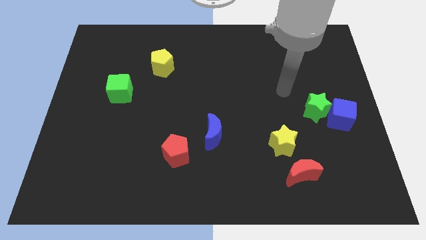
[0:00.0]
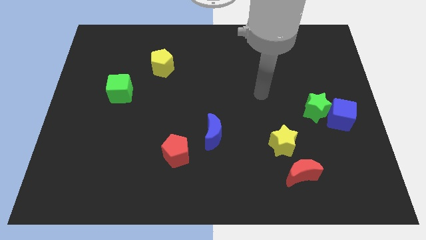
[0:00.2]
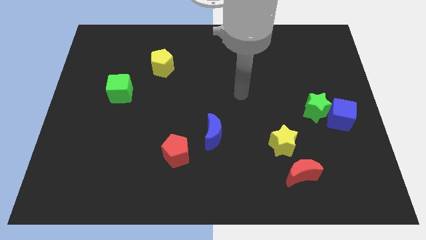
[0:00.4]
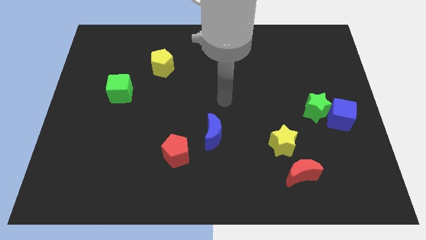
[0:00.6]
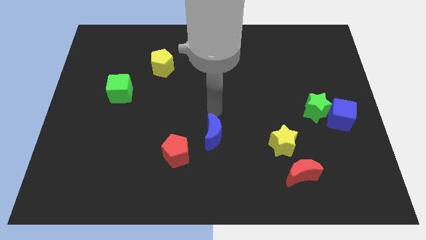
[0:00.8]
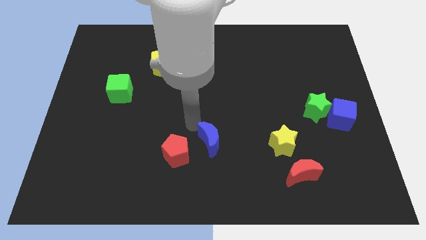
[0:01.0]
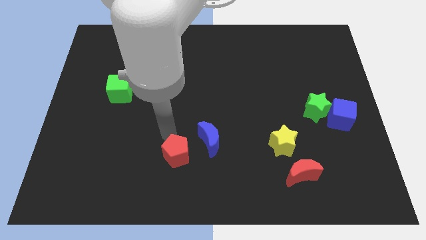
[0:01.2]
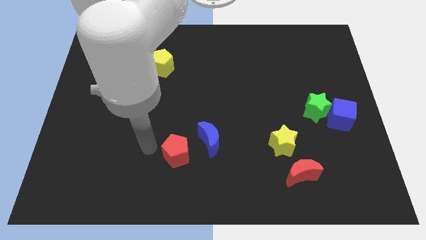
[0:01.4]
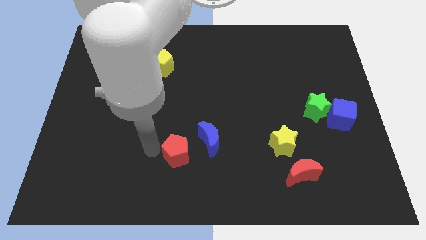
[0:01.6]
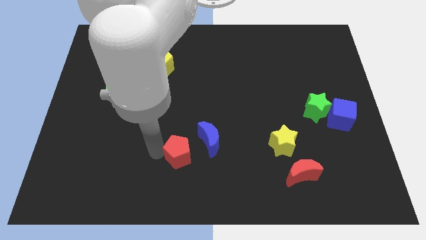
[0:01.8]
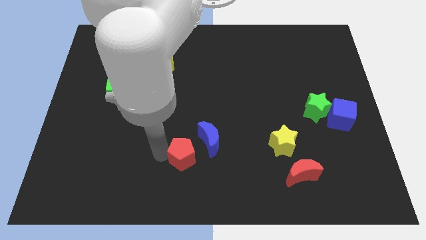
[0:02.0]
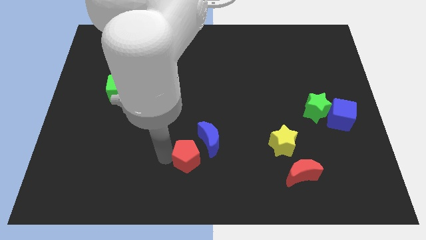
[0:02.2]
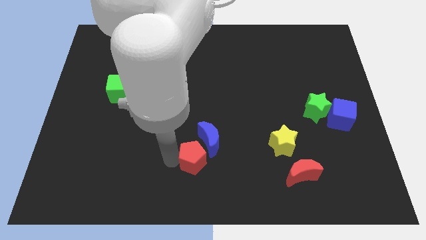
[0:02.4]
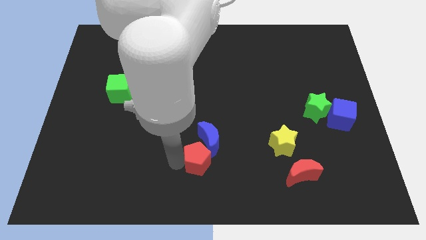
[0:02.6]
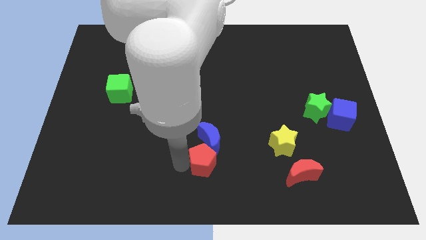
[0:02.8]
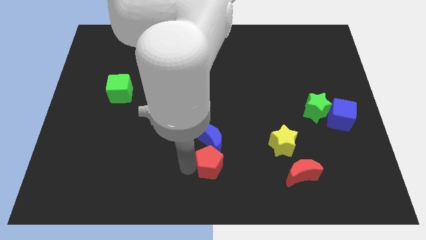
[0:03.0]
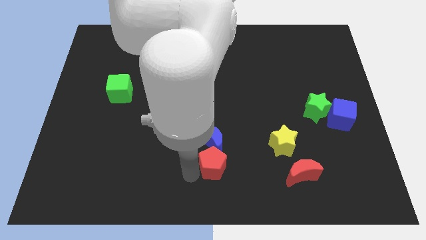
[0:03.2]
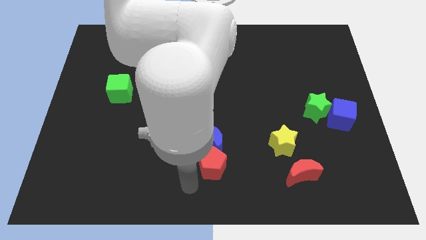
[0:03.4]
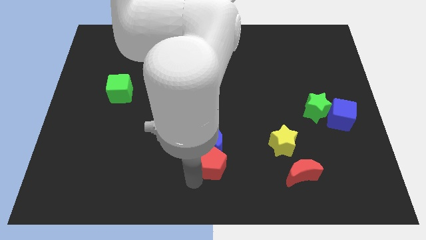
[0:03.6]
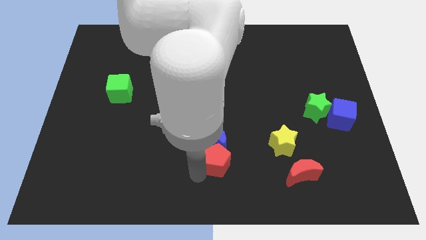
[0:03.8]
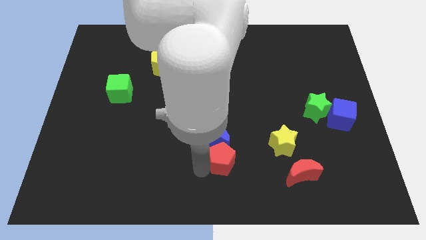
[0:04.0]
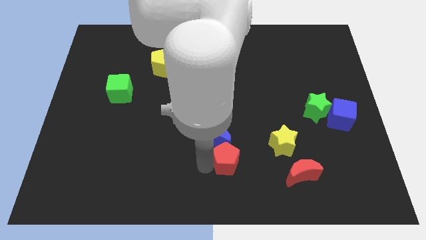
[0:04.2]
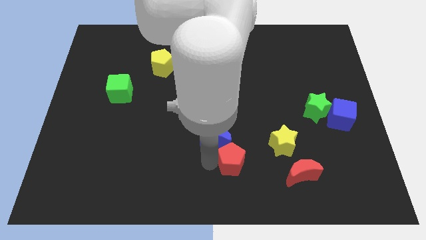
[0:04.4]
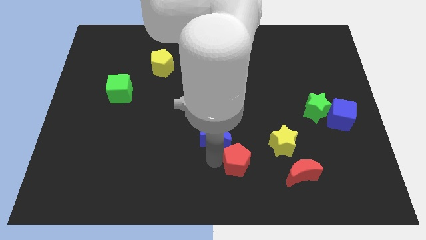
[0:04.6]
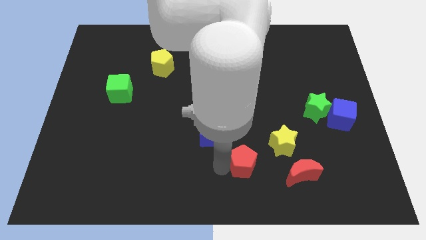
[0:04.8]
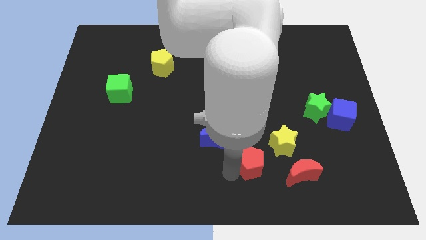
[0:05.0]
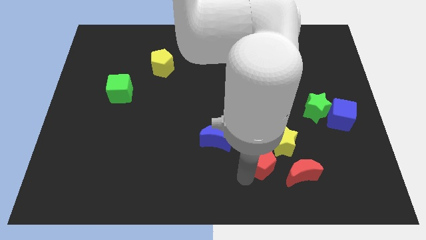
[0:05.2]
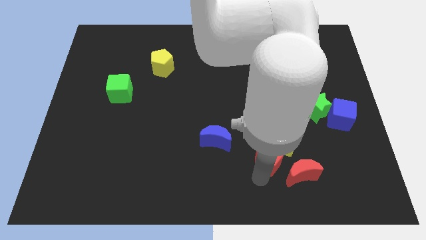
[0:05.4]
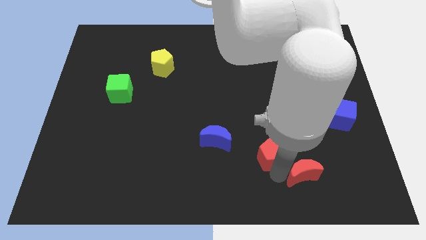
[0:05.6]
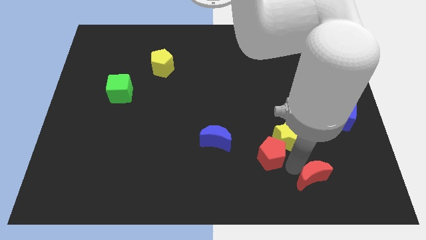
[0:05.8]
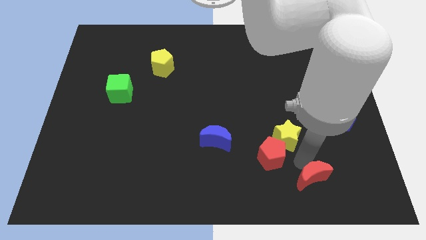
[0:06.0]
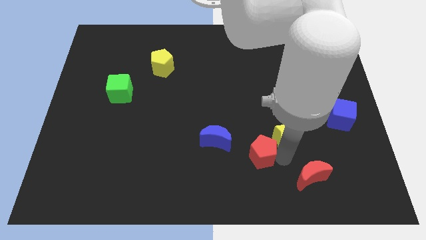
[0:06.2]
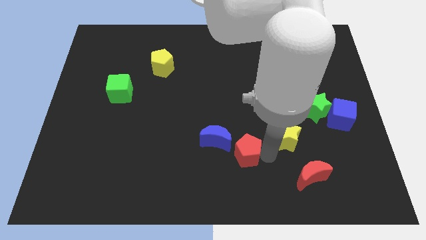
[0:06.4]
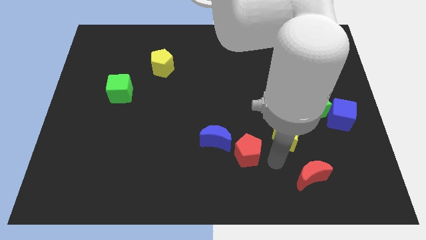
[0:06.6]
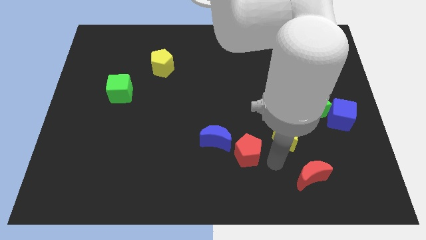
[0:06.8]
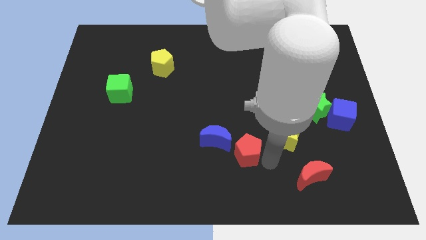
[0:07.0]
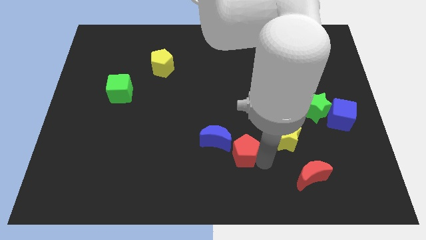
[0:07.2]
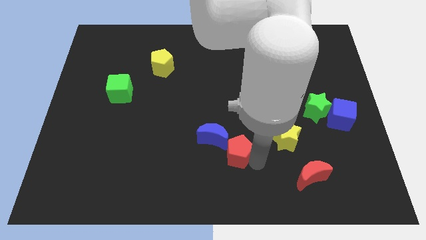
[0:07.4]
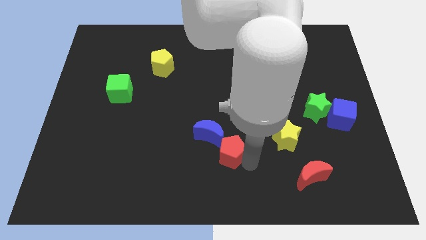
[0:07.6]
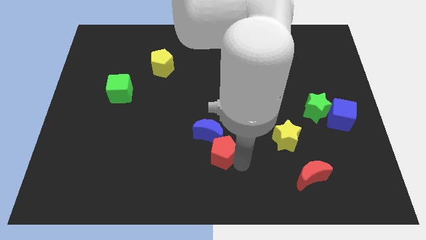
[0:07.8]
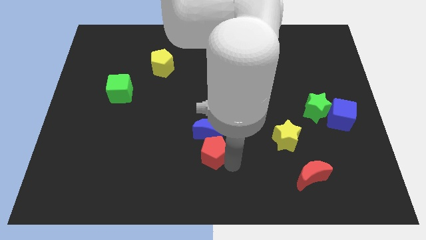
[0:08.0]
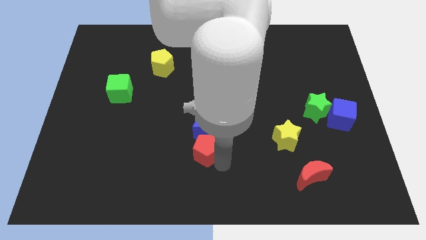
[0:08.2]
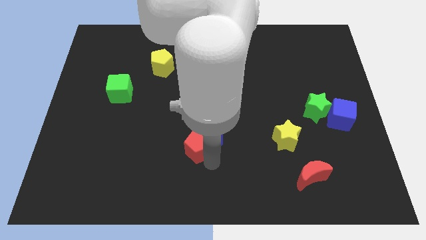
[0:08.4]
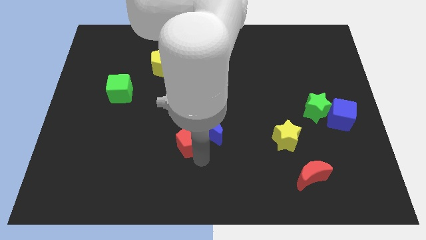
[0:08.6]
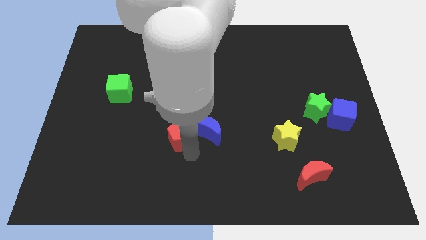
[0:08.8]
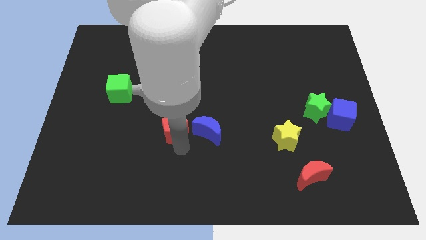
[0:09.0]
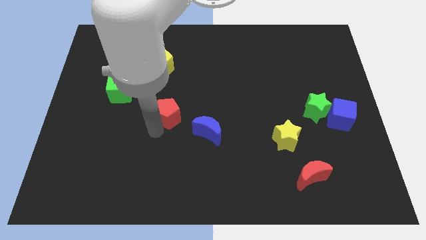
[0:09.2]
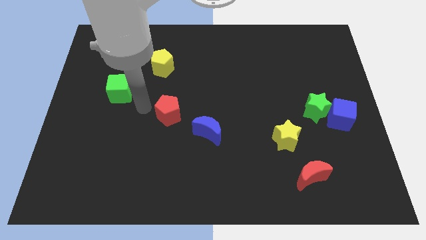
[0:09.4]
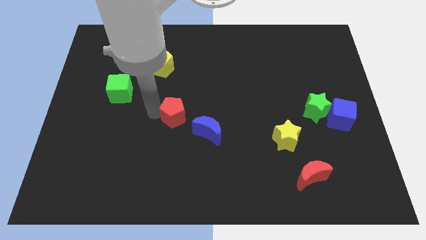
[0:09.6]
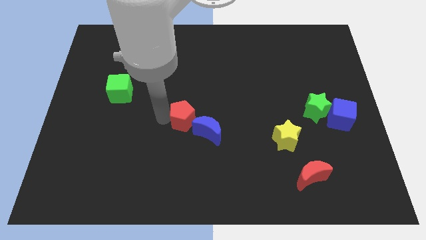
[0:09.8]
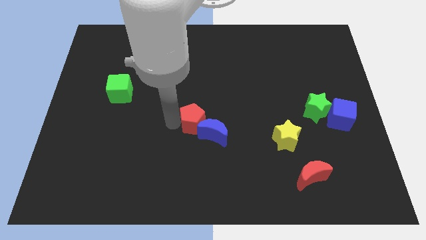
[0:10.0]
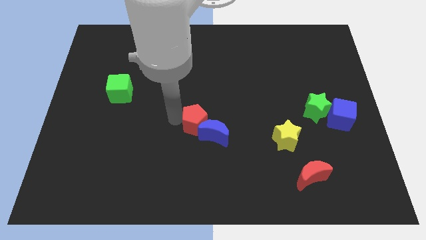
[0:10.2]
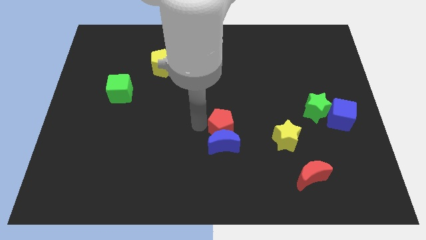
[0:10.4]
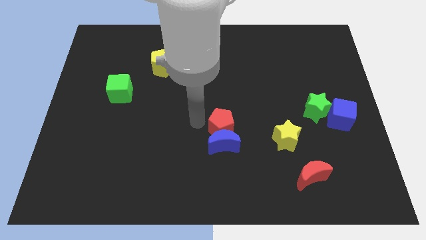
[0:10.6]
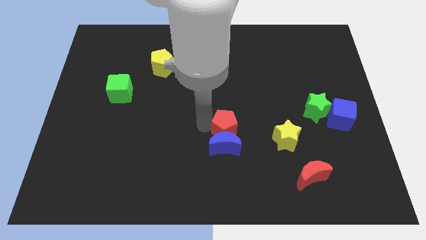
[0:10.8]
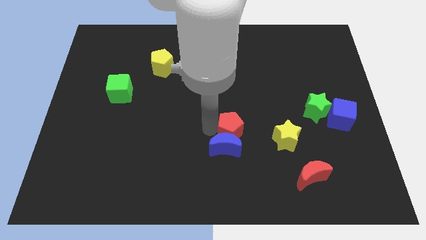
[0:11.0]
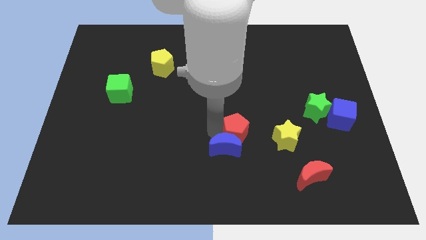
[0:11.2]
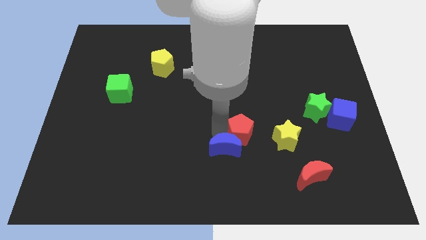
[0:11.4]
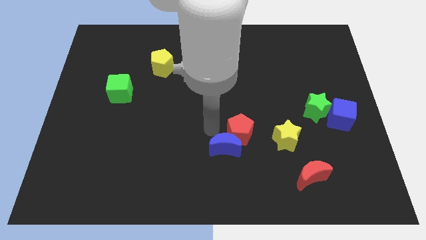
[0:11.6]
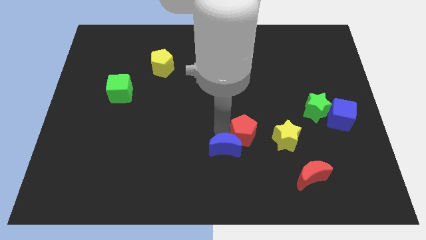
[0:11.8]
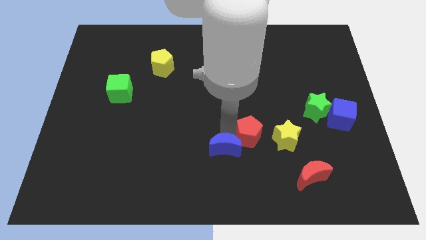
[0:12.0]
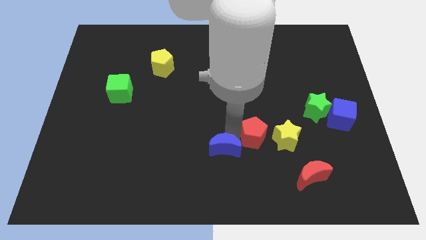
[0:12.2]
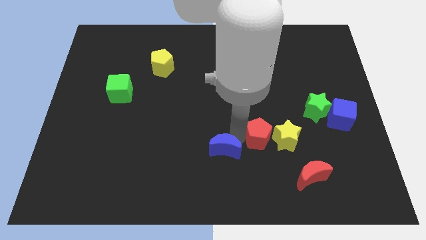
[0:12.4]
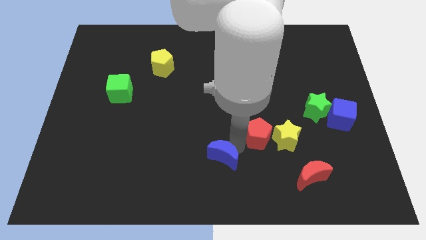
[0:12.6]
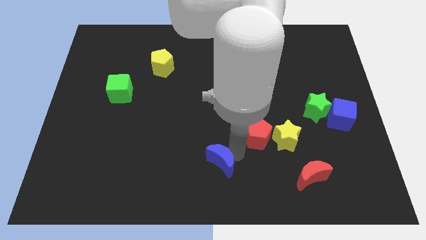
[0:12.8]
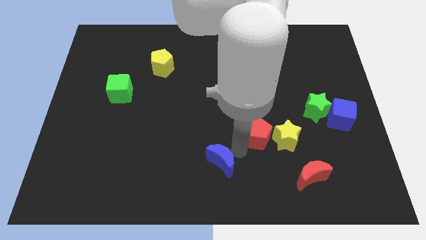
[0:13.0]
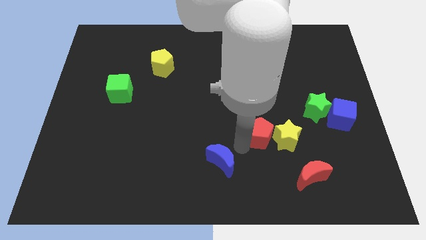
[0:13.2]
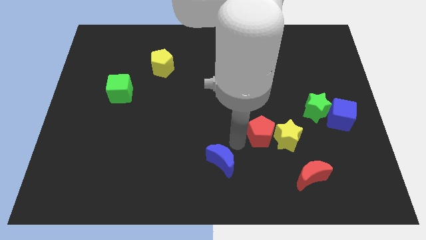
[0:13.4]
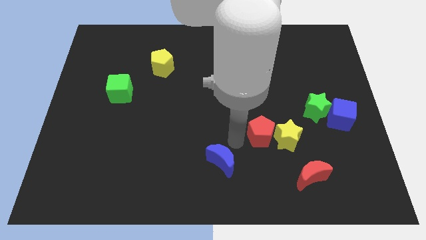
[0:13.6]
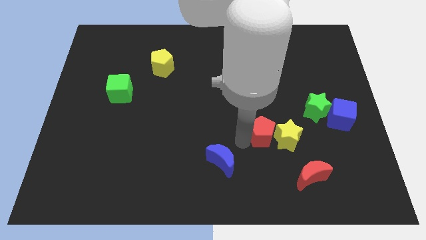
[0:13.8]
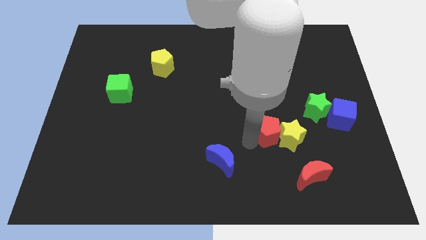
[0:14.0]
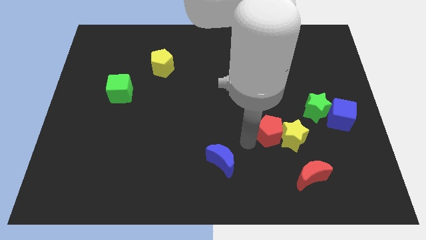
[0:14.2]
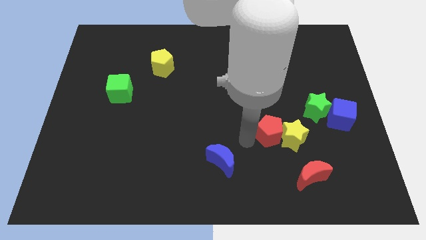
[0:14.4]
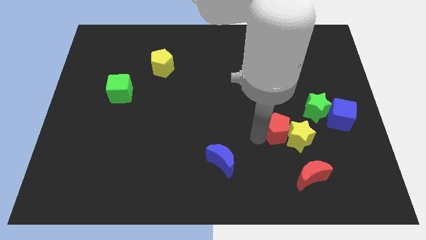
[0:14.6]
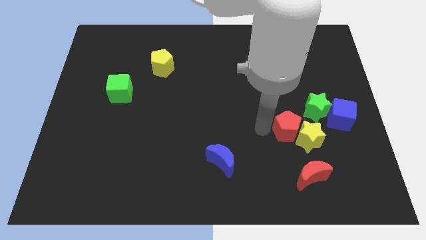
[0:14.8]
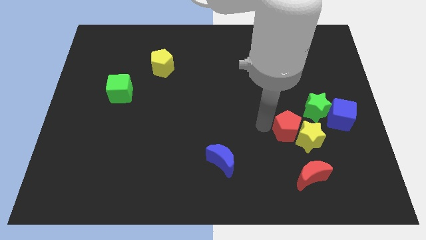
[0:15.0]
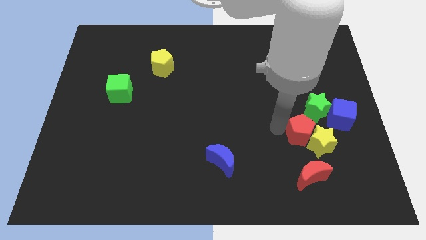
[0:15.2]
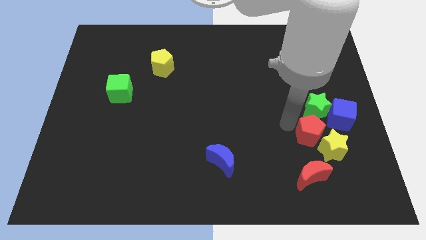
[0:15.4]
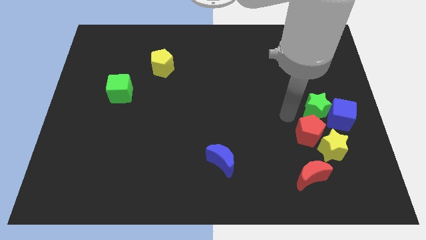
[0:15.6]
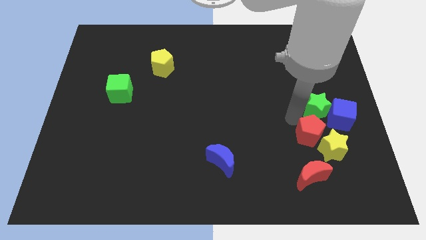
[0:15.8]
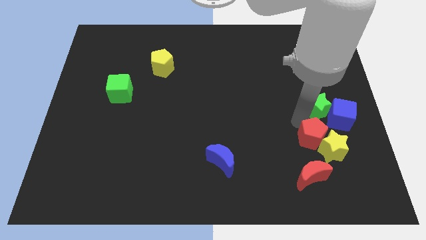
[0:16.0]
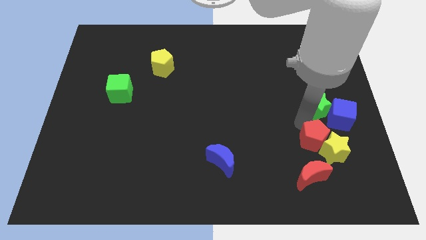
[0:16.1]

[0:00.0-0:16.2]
put the red pentagon diagonally up and to the right of the red moon

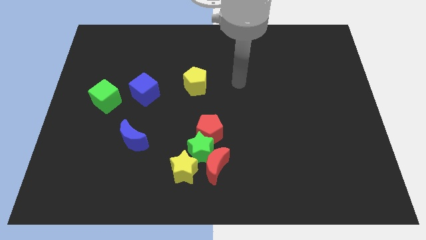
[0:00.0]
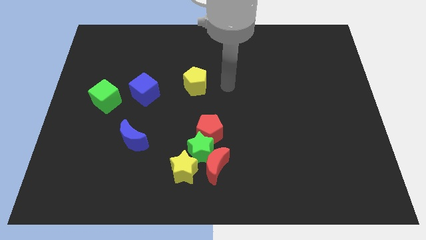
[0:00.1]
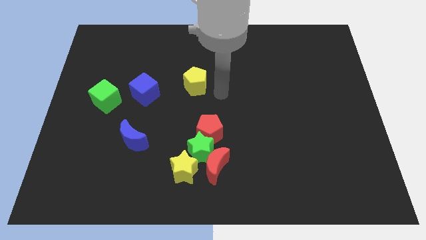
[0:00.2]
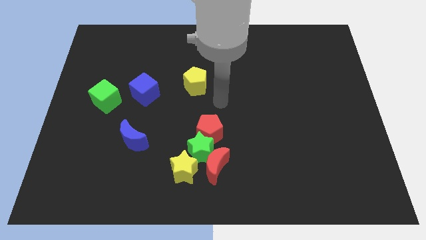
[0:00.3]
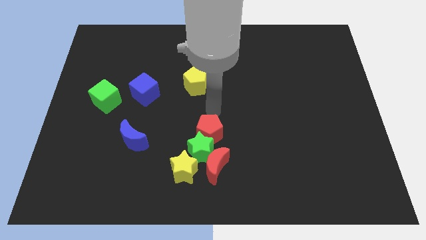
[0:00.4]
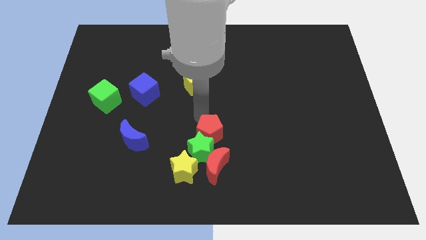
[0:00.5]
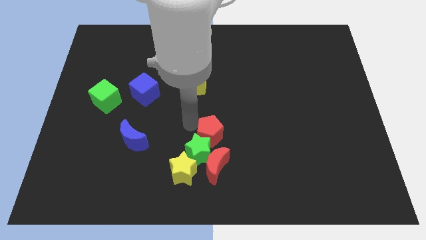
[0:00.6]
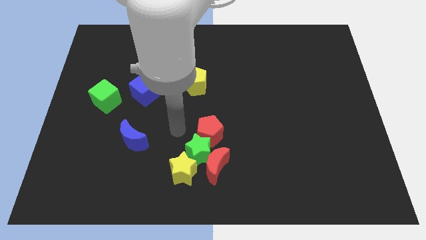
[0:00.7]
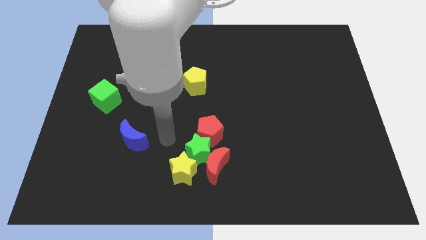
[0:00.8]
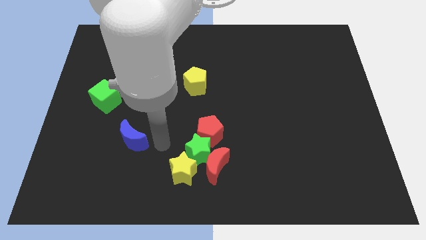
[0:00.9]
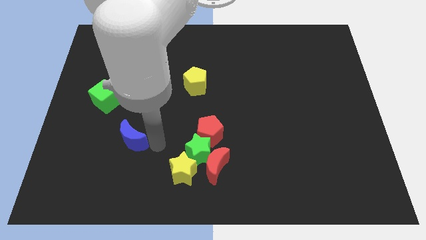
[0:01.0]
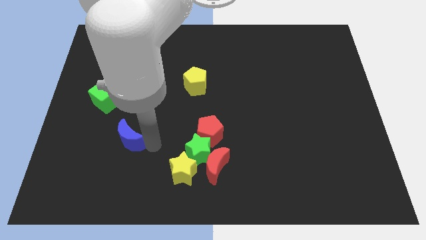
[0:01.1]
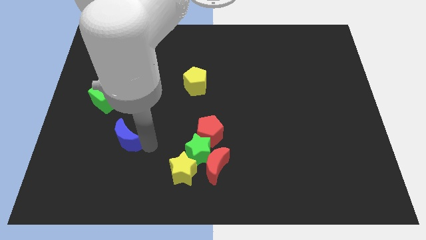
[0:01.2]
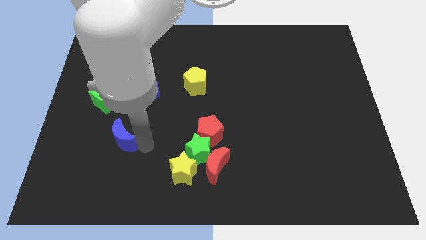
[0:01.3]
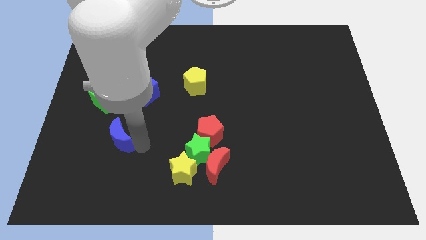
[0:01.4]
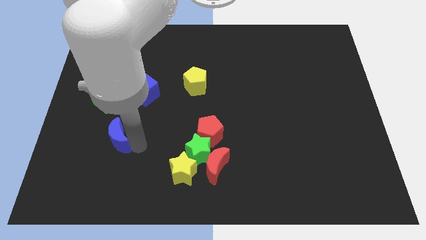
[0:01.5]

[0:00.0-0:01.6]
put the blue moon to the bottom side of the green cube
